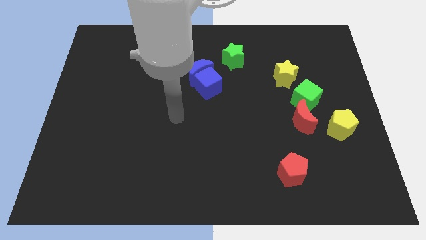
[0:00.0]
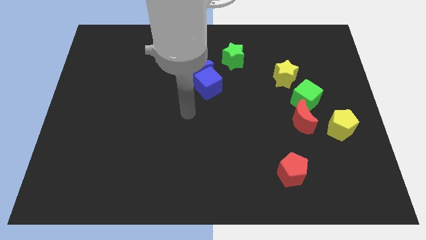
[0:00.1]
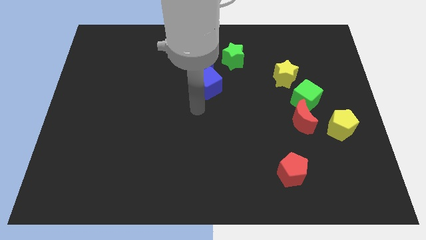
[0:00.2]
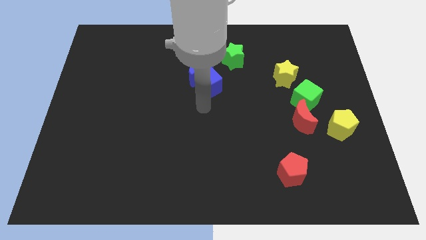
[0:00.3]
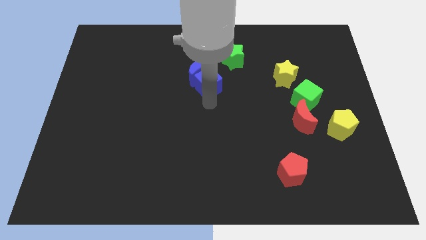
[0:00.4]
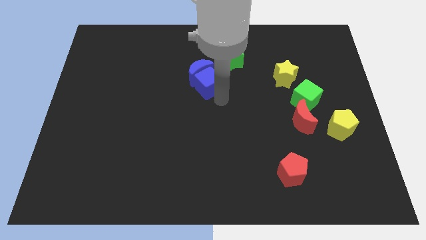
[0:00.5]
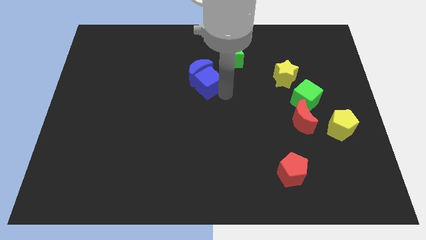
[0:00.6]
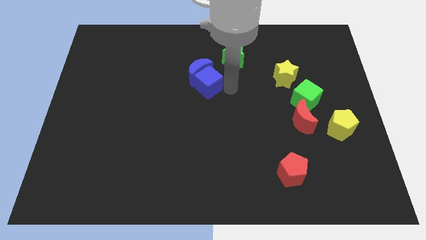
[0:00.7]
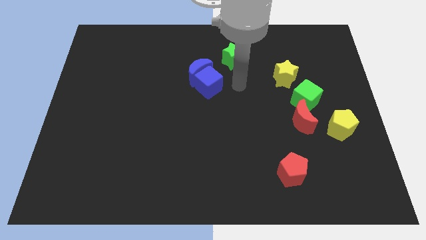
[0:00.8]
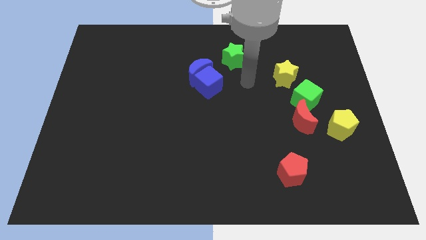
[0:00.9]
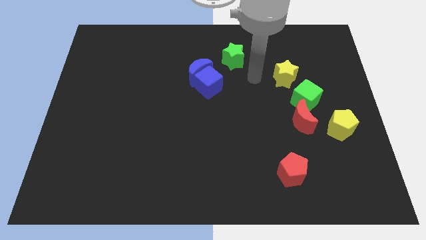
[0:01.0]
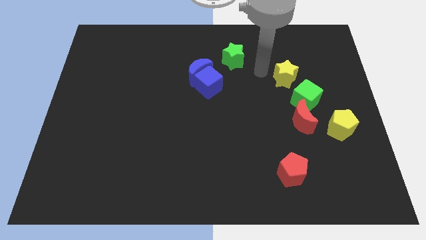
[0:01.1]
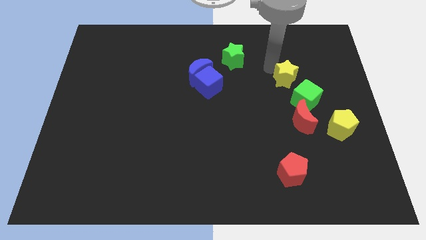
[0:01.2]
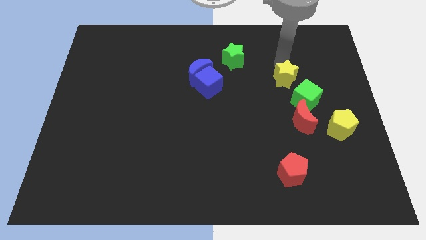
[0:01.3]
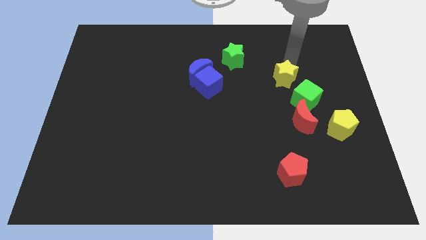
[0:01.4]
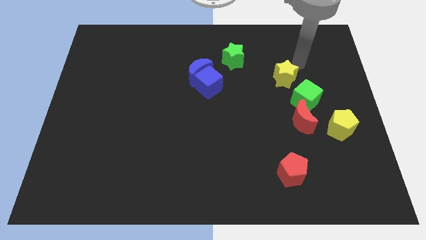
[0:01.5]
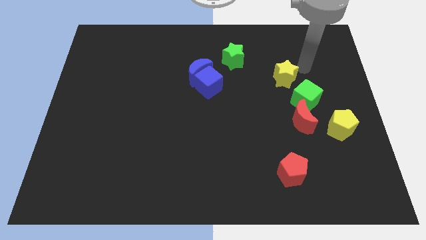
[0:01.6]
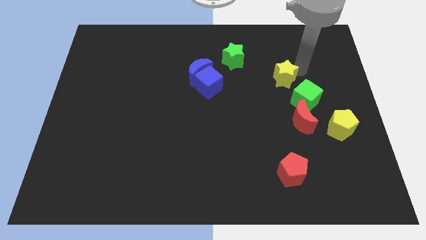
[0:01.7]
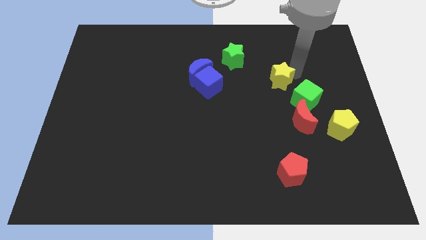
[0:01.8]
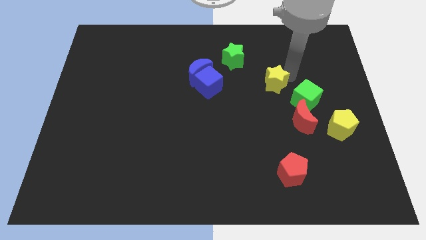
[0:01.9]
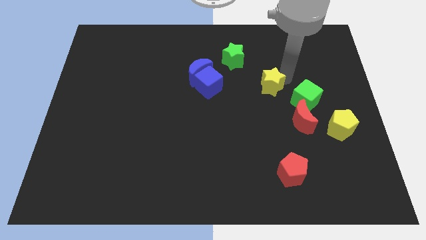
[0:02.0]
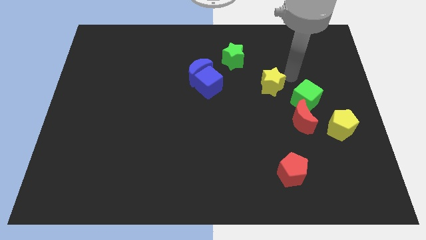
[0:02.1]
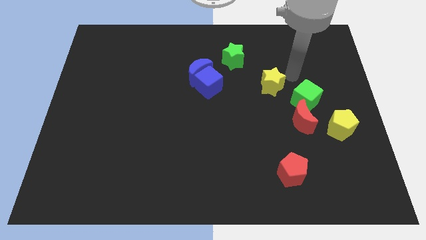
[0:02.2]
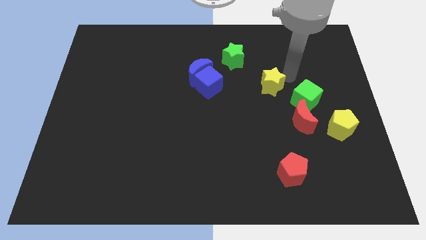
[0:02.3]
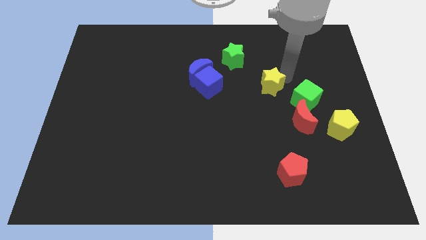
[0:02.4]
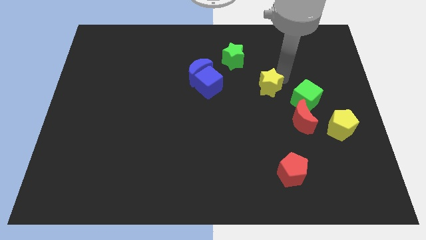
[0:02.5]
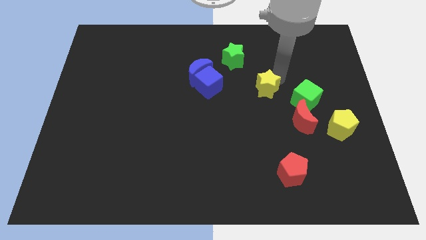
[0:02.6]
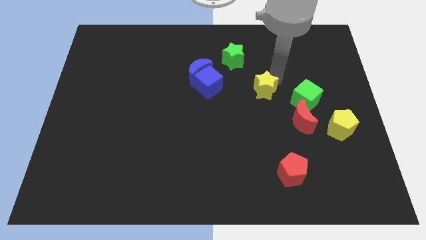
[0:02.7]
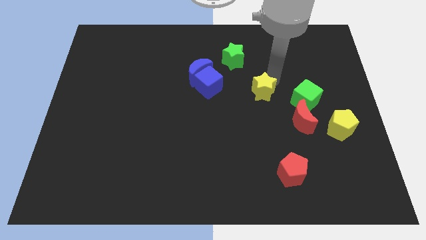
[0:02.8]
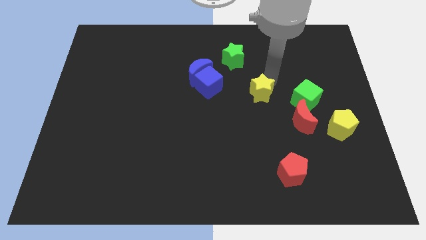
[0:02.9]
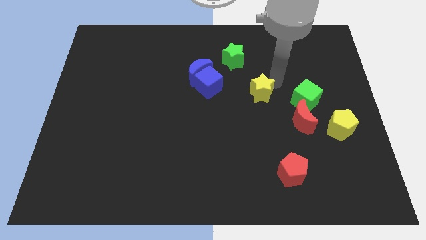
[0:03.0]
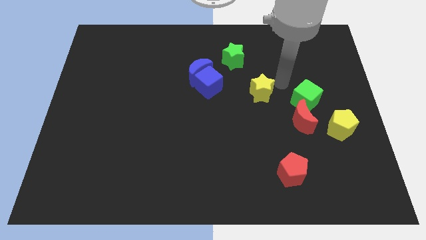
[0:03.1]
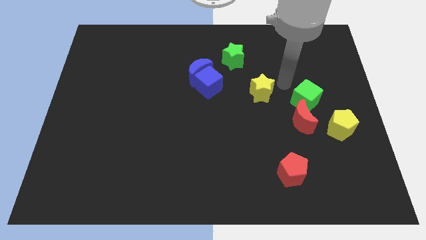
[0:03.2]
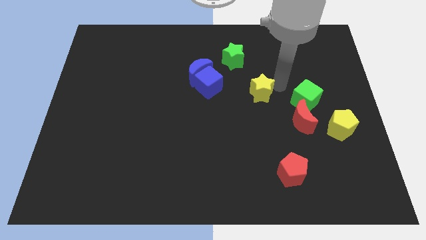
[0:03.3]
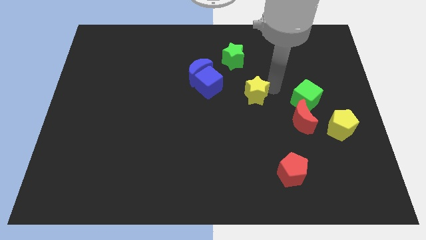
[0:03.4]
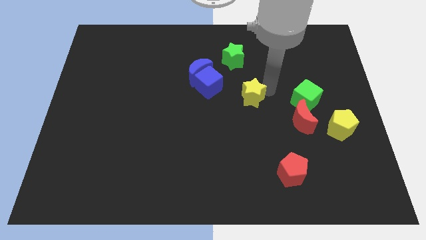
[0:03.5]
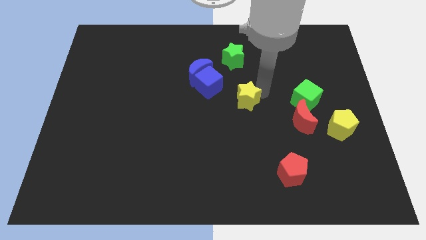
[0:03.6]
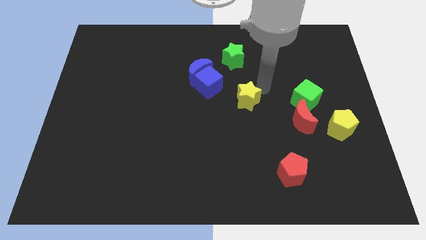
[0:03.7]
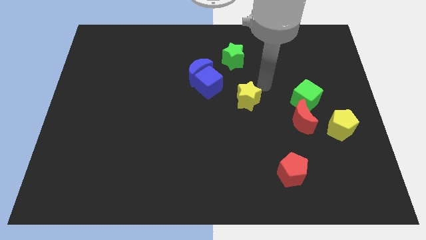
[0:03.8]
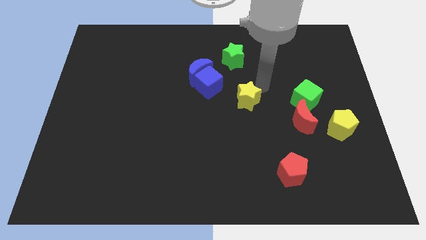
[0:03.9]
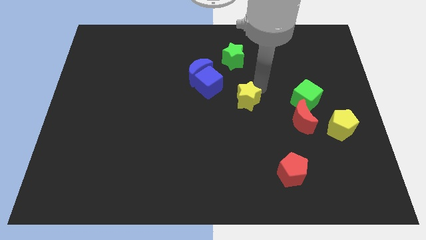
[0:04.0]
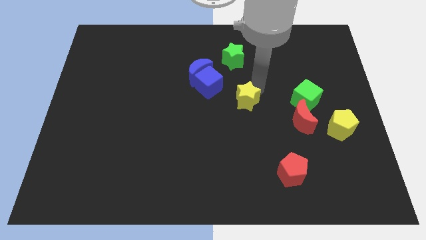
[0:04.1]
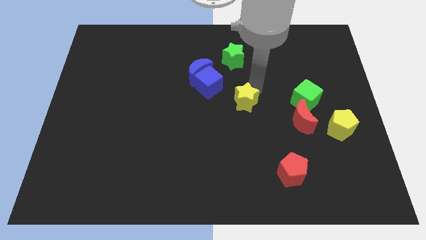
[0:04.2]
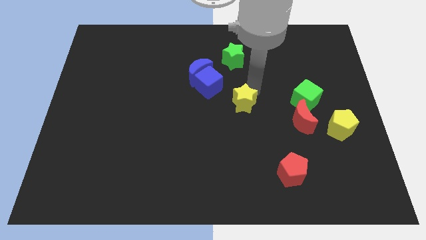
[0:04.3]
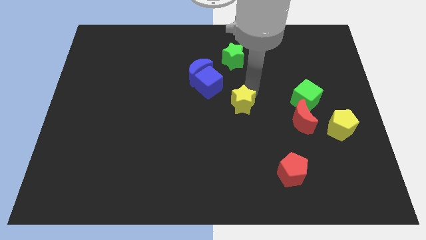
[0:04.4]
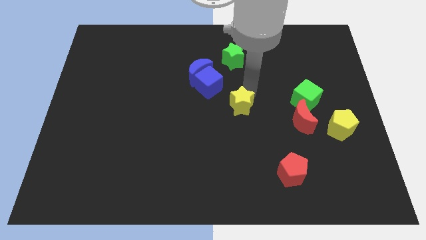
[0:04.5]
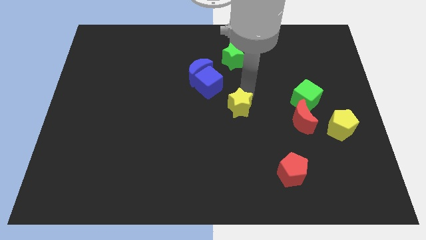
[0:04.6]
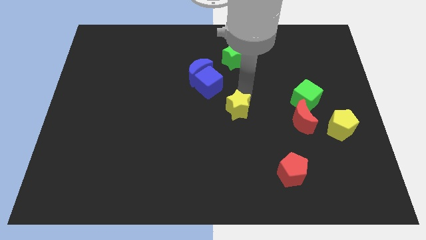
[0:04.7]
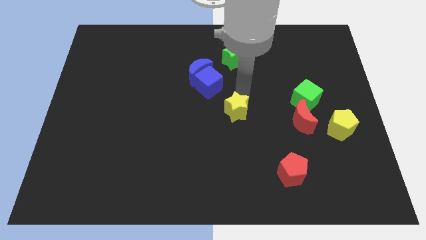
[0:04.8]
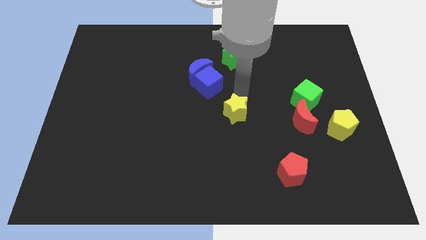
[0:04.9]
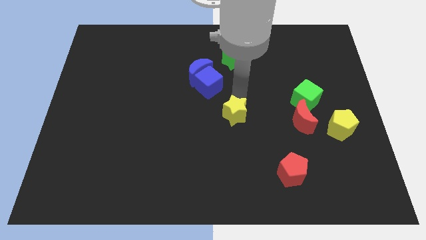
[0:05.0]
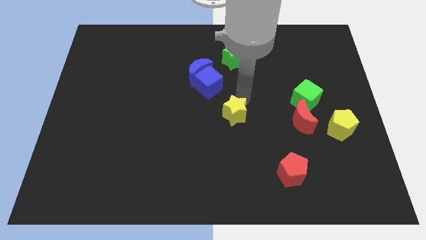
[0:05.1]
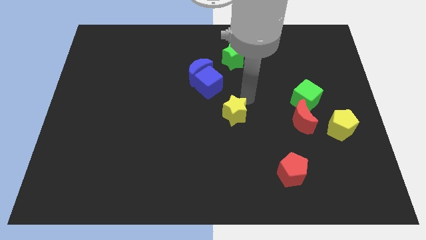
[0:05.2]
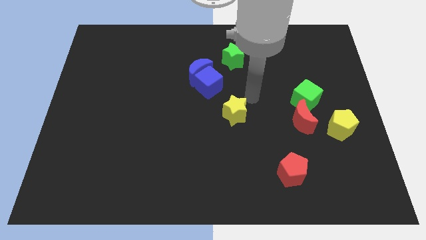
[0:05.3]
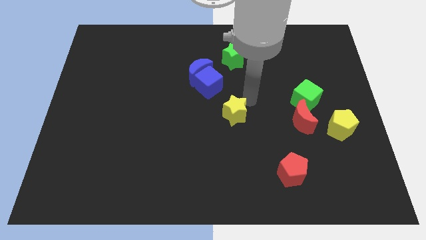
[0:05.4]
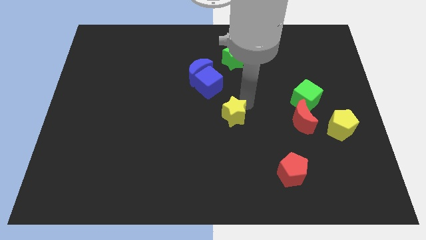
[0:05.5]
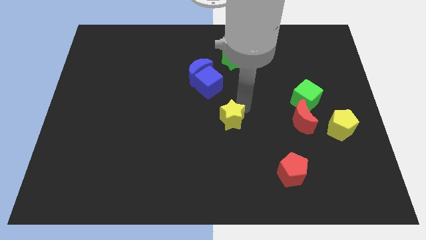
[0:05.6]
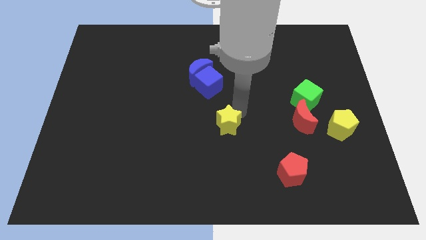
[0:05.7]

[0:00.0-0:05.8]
push the yellow star downwards and then to the left

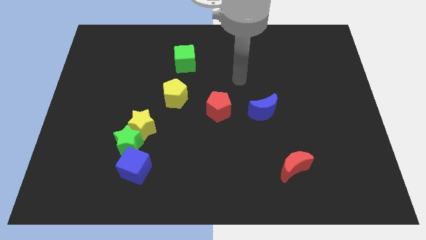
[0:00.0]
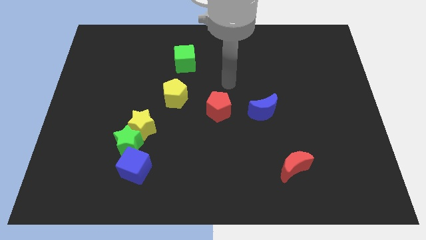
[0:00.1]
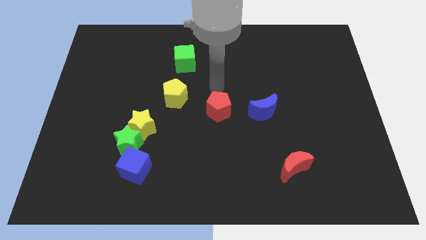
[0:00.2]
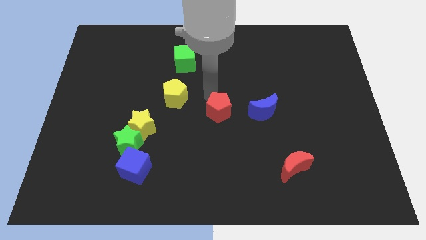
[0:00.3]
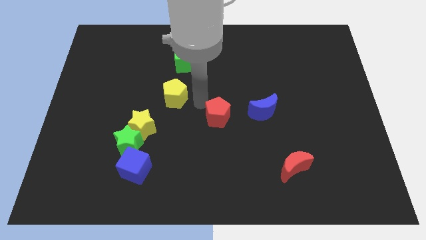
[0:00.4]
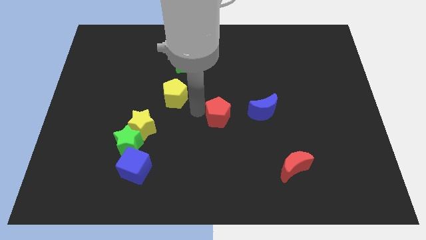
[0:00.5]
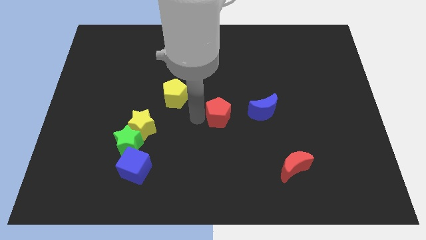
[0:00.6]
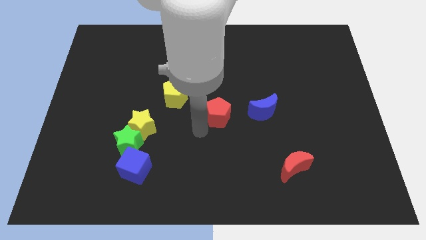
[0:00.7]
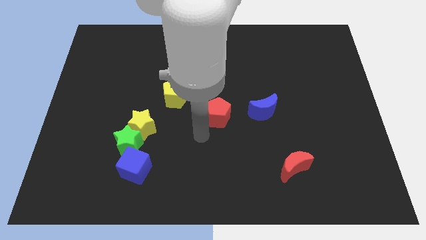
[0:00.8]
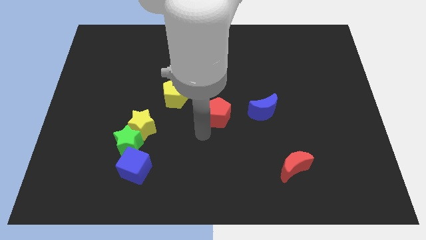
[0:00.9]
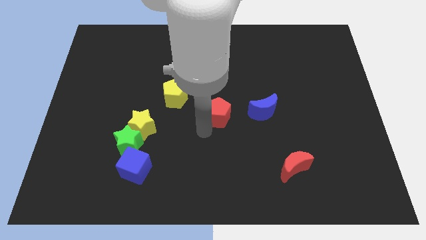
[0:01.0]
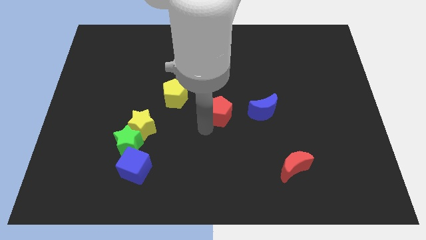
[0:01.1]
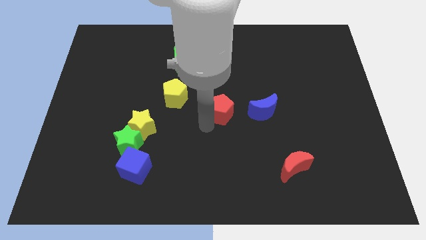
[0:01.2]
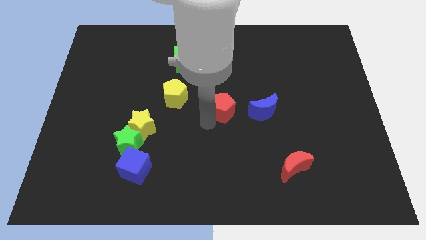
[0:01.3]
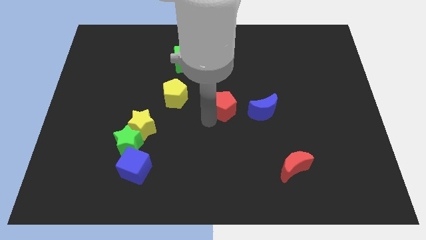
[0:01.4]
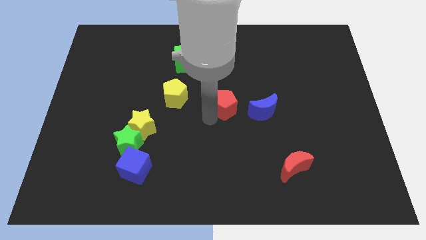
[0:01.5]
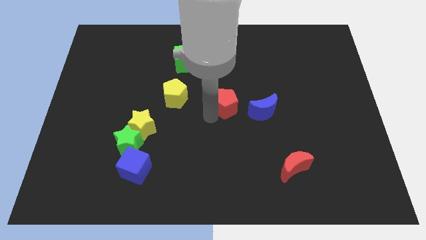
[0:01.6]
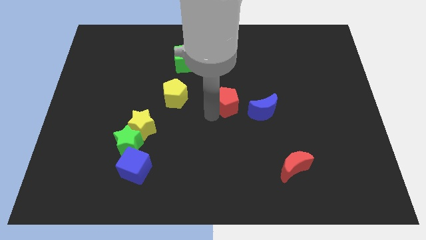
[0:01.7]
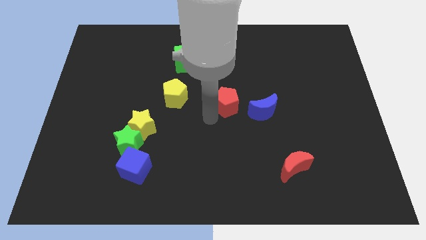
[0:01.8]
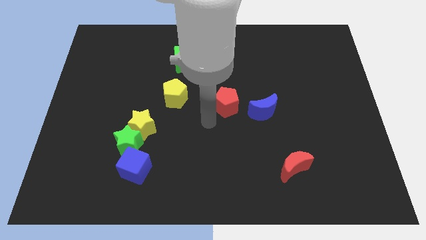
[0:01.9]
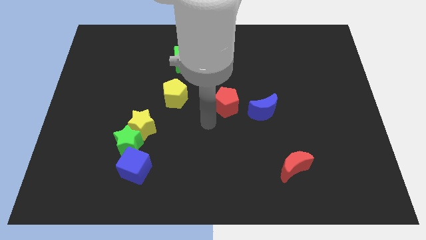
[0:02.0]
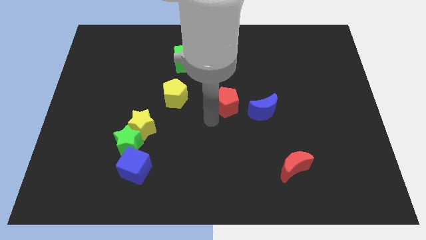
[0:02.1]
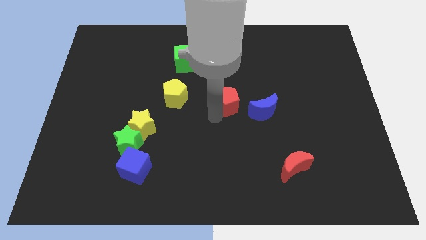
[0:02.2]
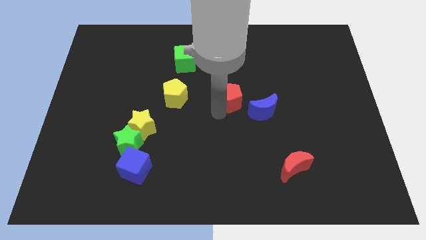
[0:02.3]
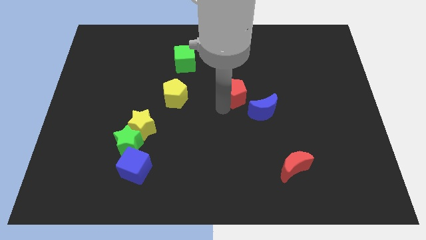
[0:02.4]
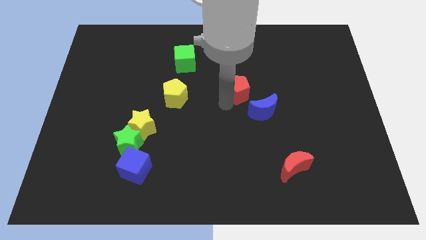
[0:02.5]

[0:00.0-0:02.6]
slightly slide the red pentagon up and right diagonally
